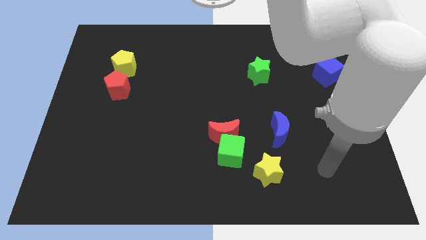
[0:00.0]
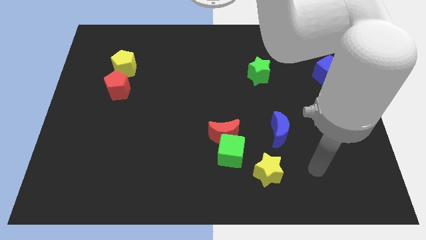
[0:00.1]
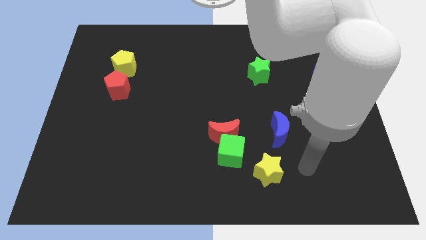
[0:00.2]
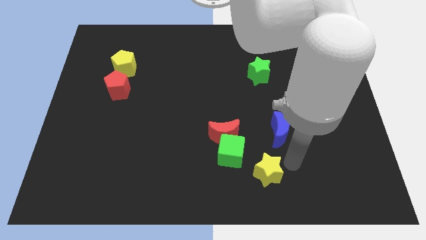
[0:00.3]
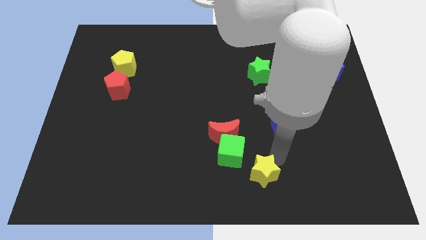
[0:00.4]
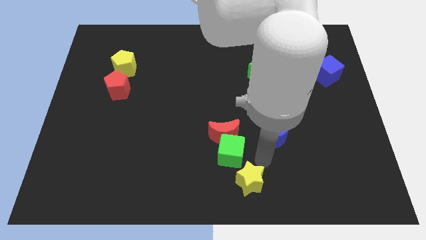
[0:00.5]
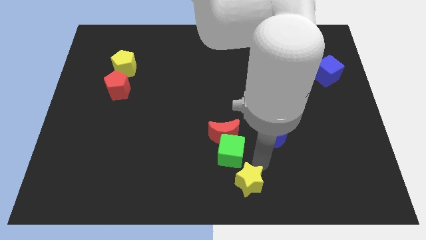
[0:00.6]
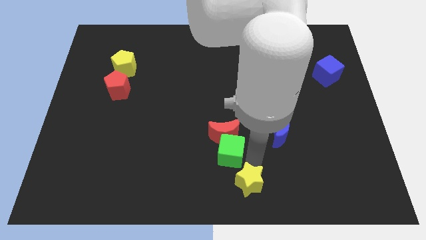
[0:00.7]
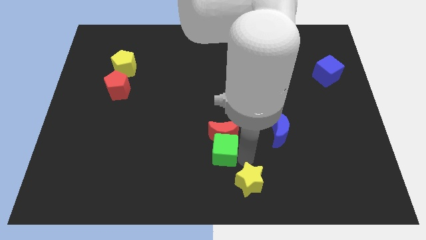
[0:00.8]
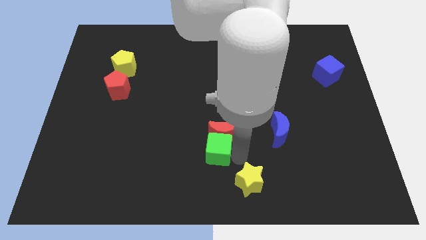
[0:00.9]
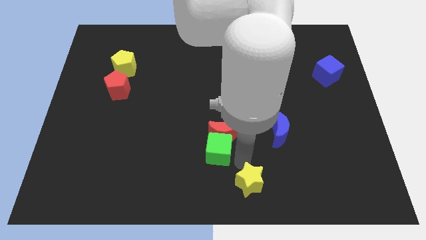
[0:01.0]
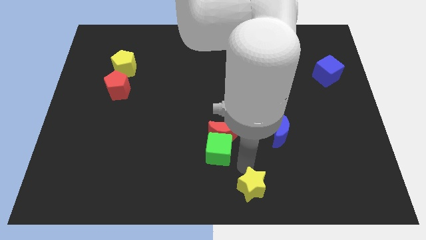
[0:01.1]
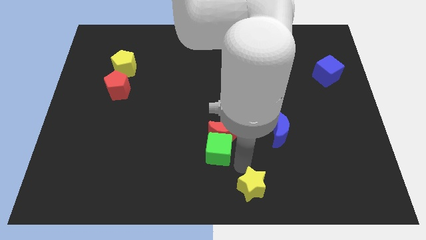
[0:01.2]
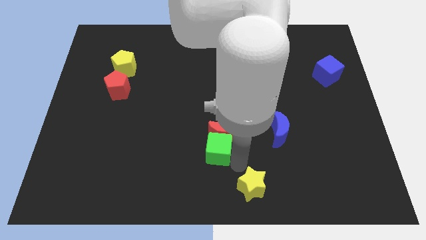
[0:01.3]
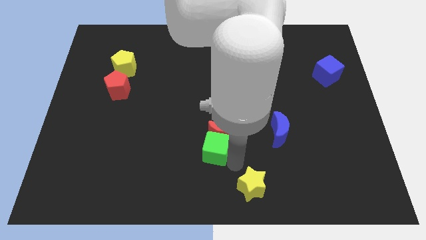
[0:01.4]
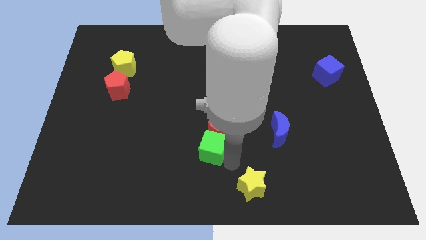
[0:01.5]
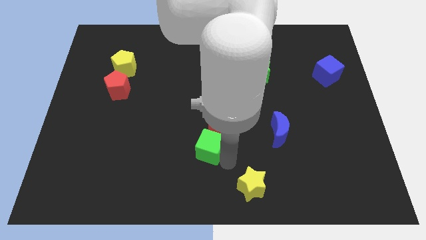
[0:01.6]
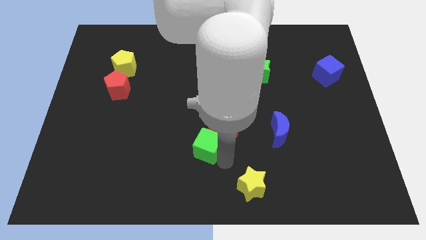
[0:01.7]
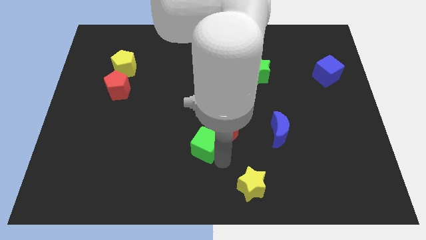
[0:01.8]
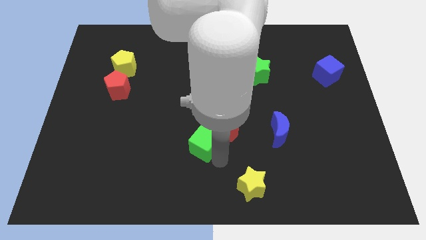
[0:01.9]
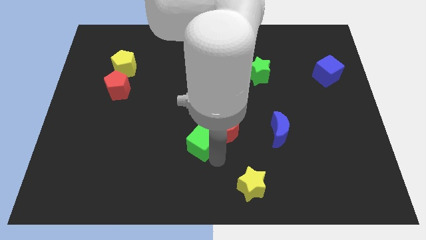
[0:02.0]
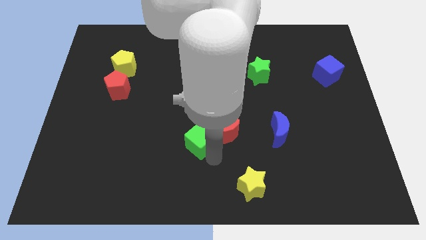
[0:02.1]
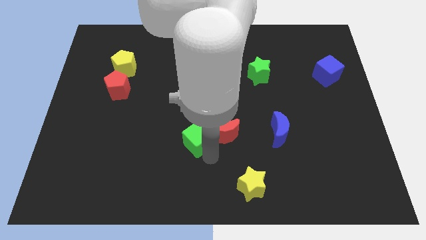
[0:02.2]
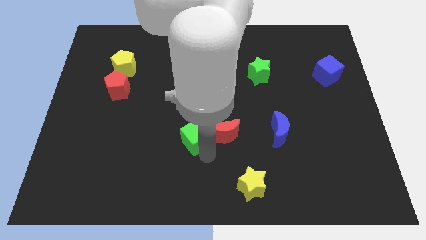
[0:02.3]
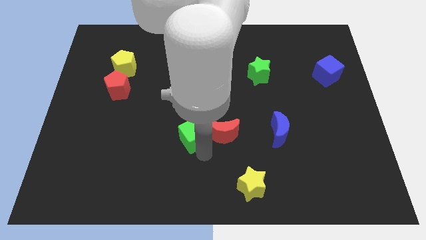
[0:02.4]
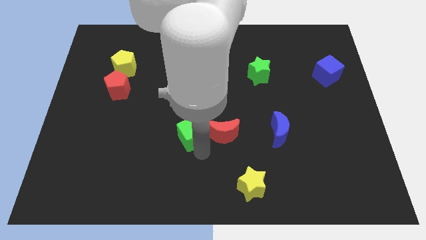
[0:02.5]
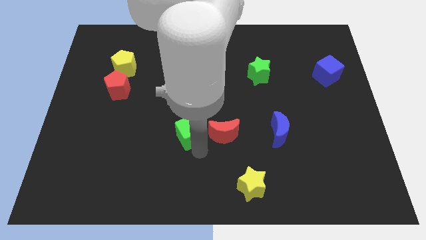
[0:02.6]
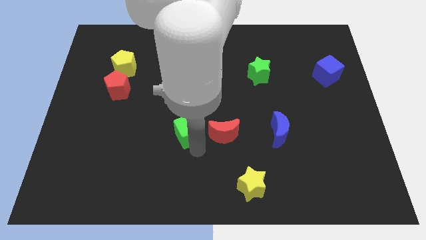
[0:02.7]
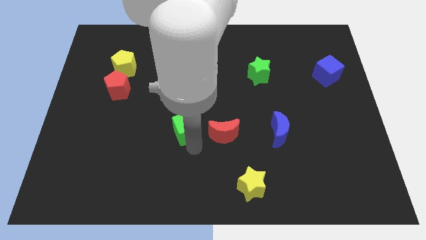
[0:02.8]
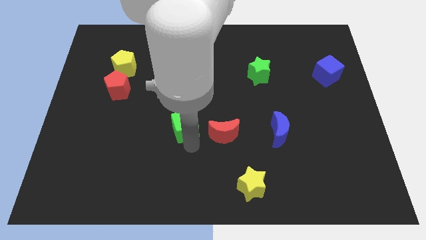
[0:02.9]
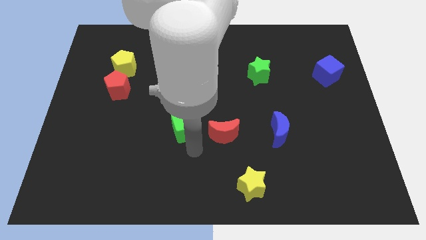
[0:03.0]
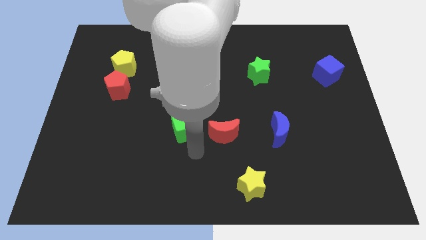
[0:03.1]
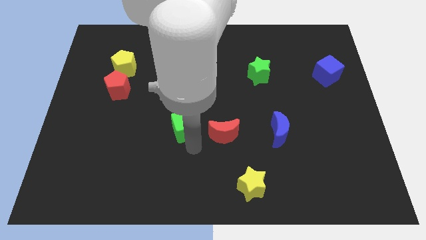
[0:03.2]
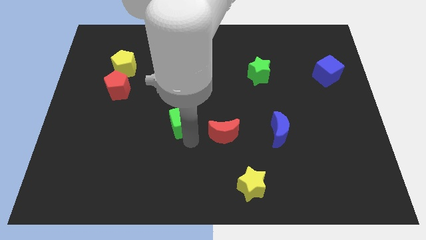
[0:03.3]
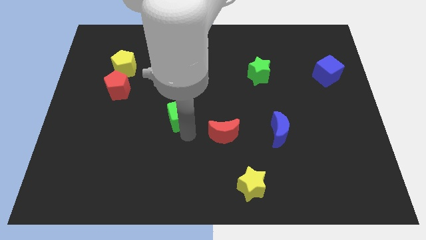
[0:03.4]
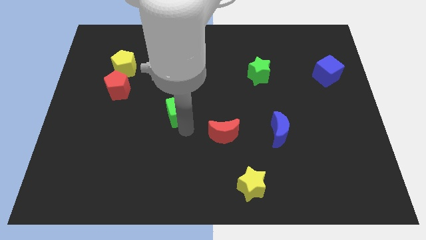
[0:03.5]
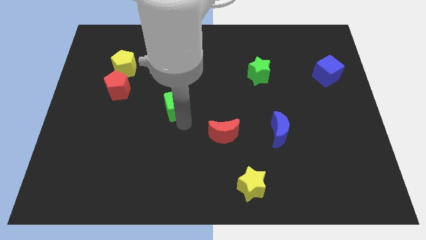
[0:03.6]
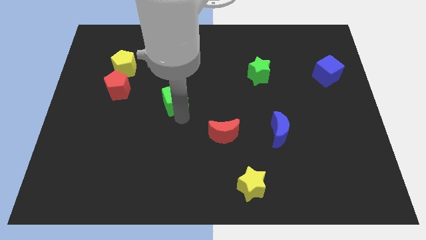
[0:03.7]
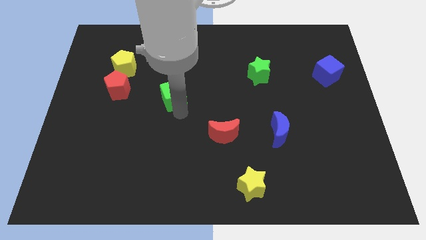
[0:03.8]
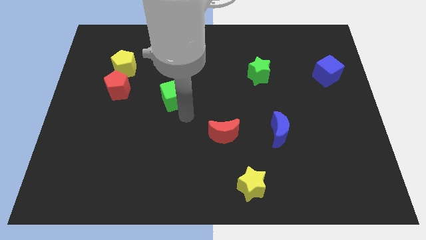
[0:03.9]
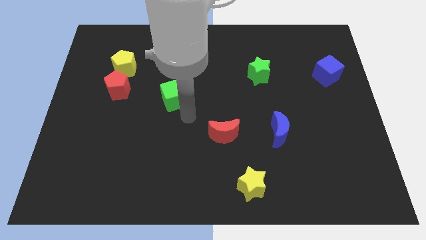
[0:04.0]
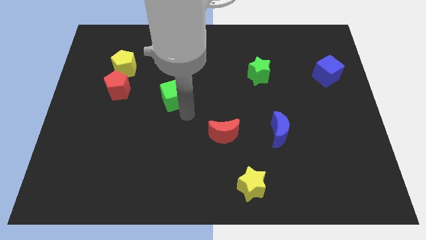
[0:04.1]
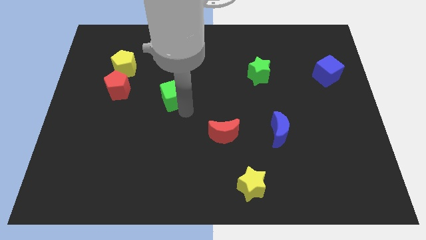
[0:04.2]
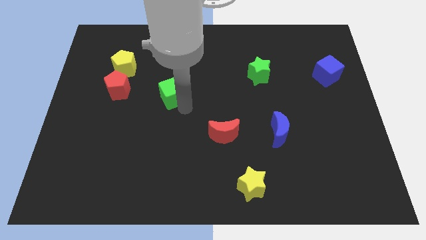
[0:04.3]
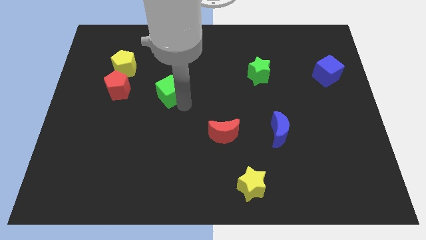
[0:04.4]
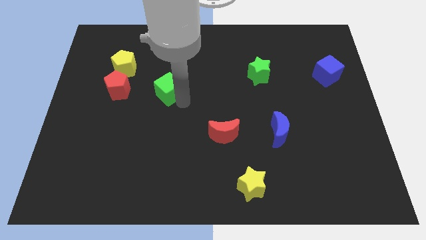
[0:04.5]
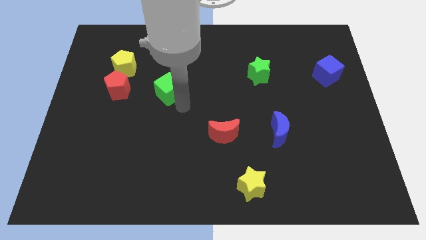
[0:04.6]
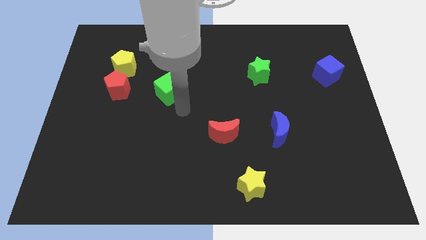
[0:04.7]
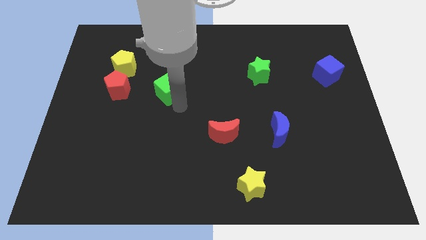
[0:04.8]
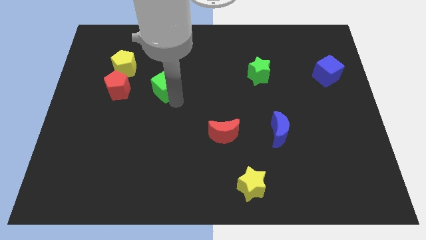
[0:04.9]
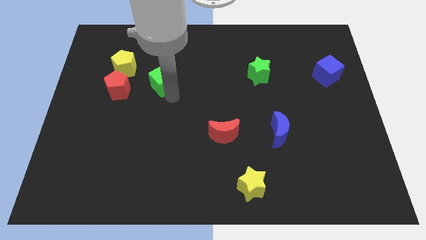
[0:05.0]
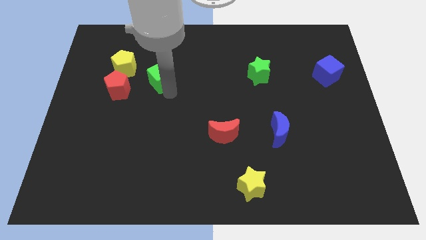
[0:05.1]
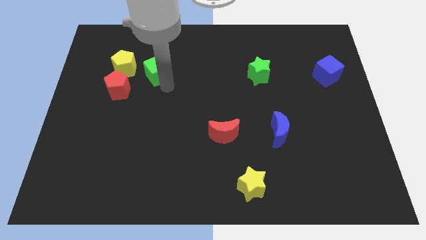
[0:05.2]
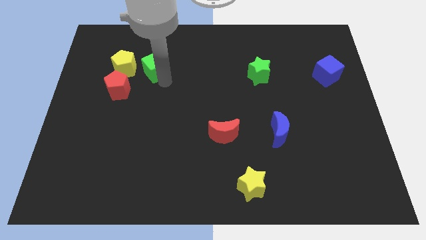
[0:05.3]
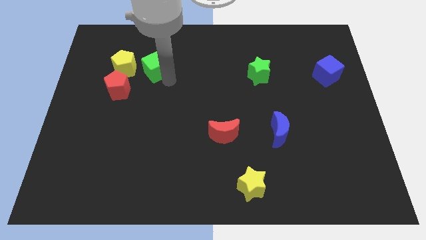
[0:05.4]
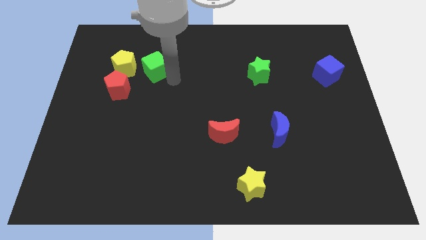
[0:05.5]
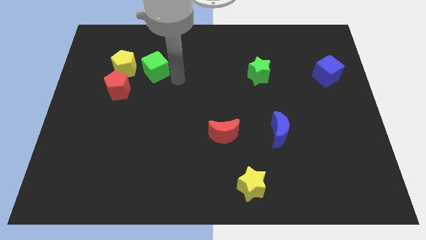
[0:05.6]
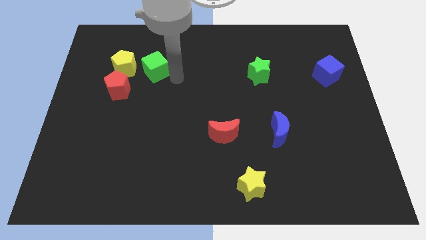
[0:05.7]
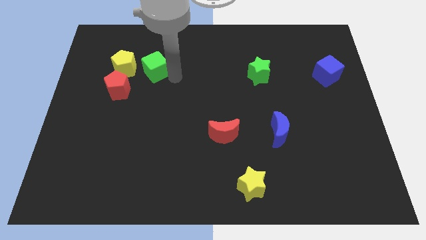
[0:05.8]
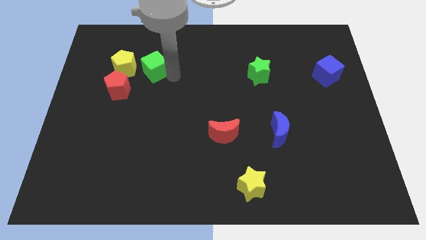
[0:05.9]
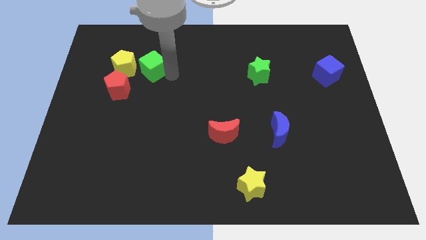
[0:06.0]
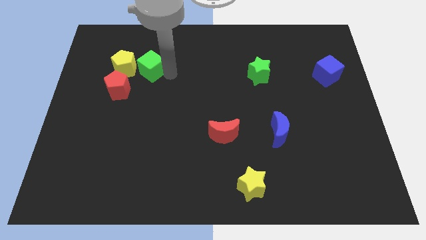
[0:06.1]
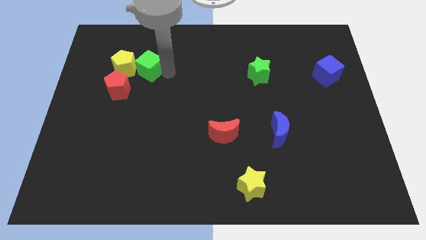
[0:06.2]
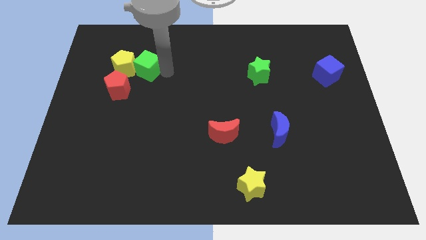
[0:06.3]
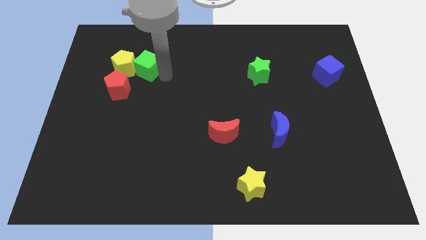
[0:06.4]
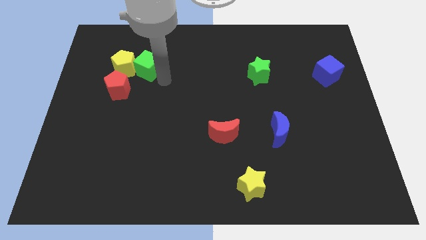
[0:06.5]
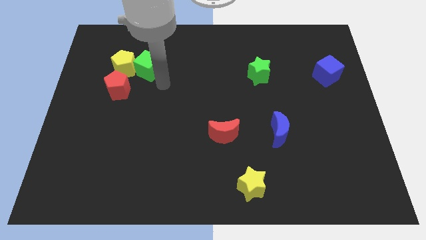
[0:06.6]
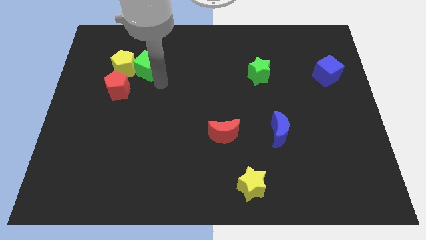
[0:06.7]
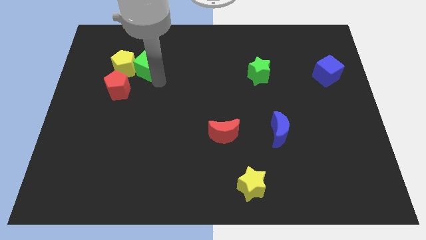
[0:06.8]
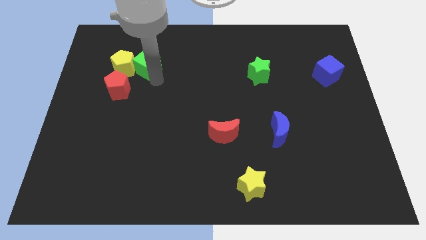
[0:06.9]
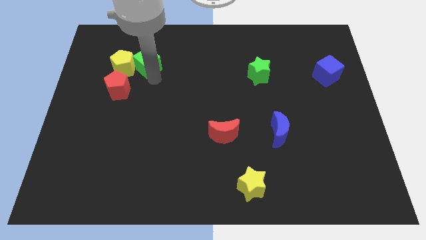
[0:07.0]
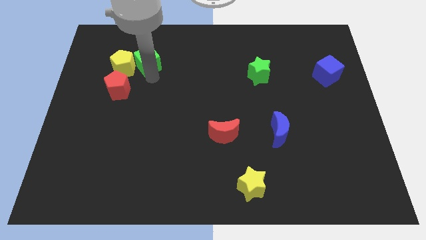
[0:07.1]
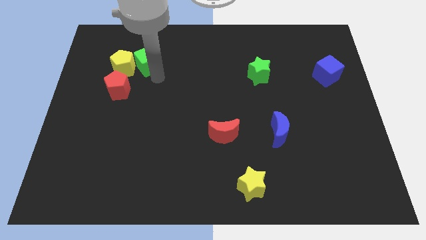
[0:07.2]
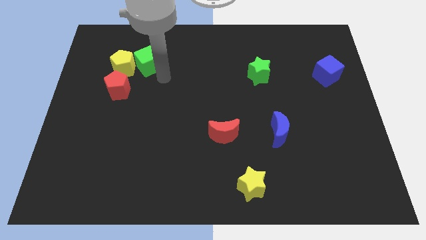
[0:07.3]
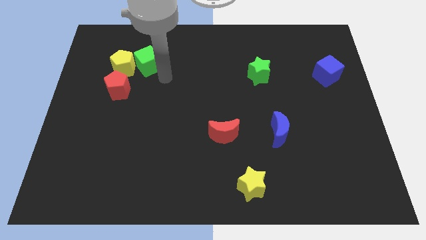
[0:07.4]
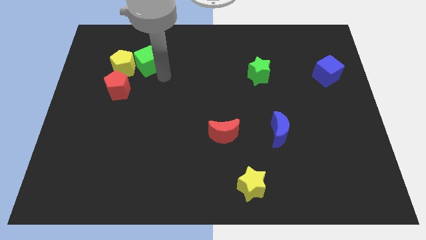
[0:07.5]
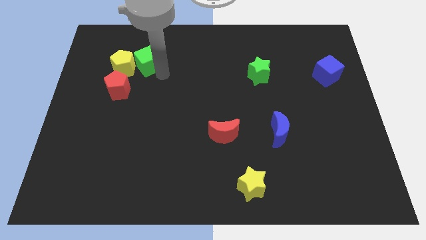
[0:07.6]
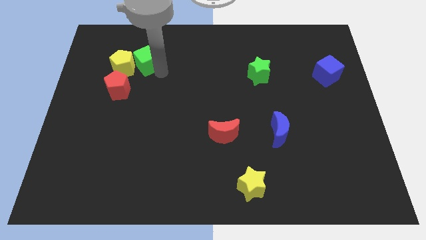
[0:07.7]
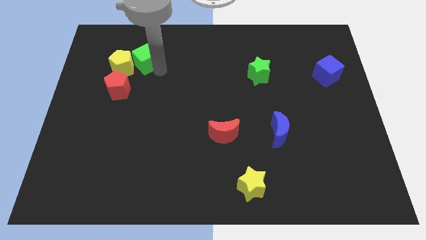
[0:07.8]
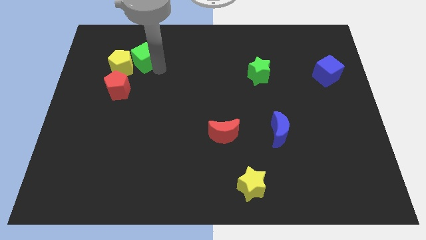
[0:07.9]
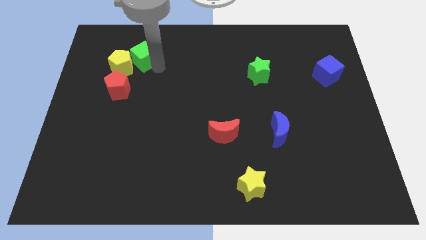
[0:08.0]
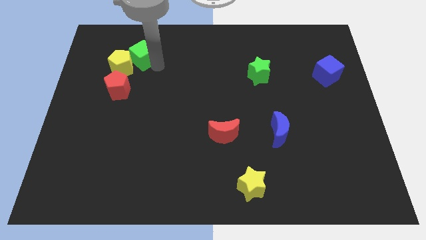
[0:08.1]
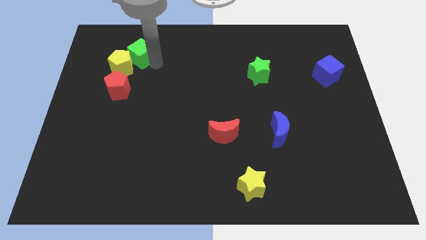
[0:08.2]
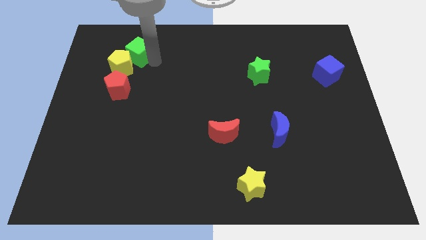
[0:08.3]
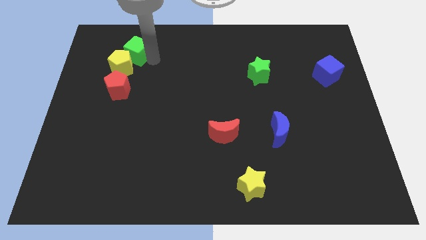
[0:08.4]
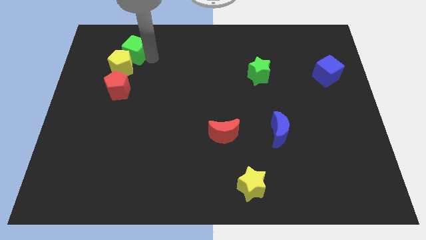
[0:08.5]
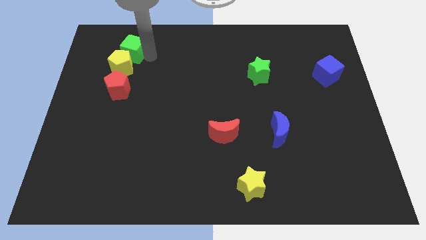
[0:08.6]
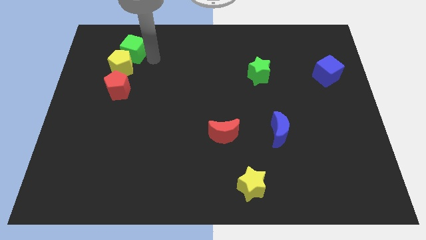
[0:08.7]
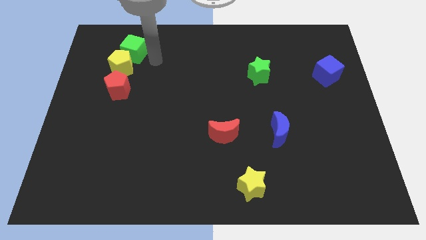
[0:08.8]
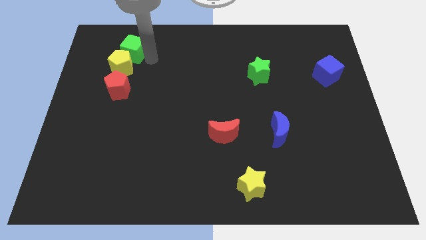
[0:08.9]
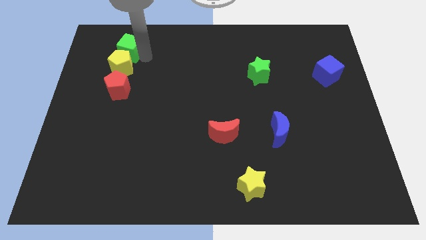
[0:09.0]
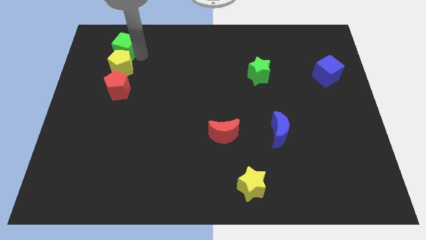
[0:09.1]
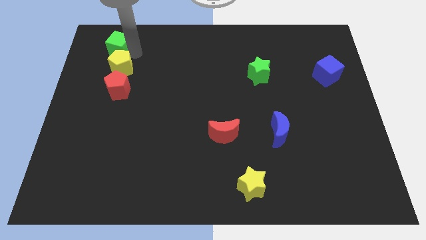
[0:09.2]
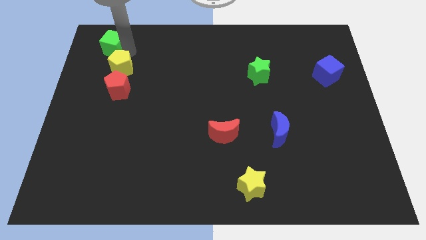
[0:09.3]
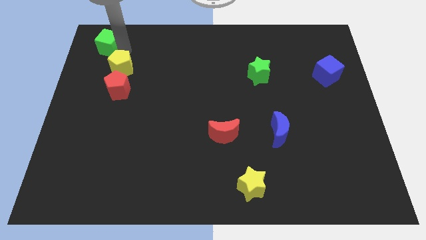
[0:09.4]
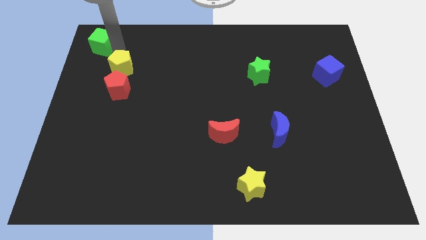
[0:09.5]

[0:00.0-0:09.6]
push the green cube to the top left corner
